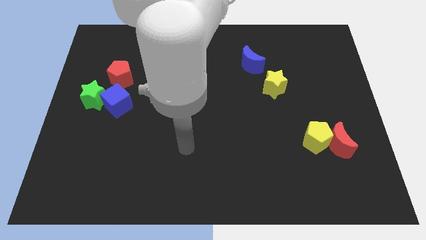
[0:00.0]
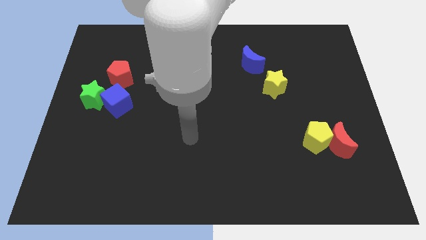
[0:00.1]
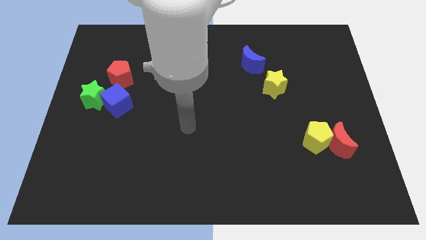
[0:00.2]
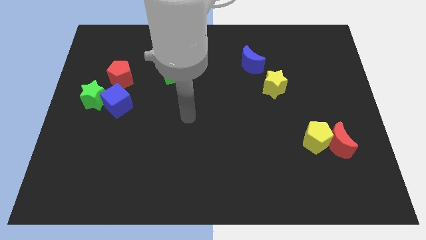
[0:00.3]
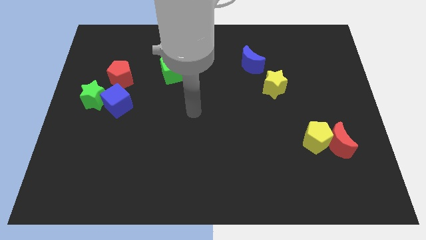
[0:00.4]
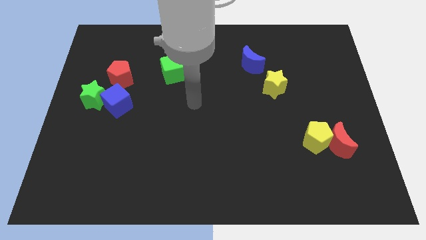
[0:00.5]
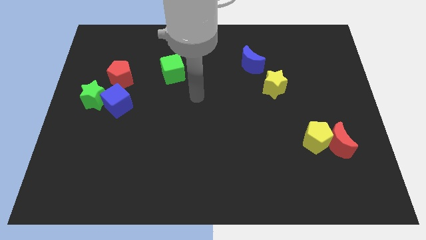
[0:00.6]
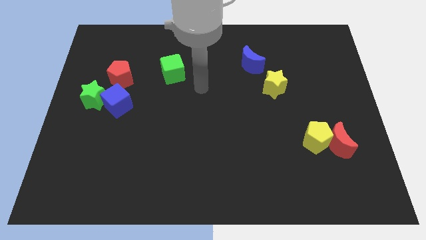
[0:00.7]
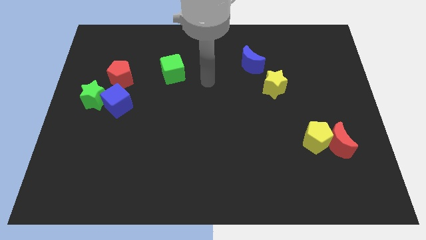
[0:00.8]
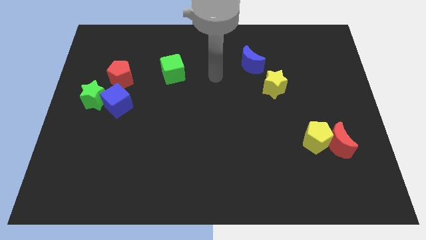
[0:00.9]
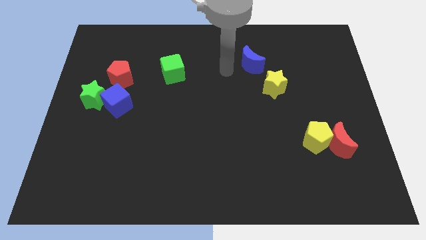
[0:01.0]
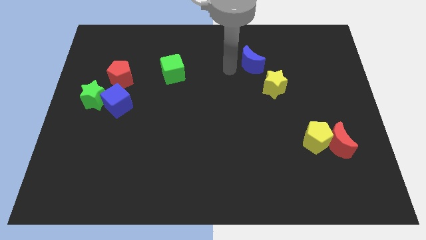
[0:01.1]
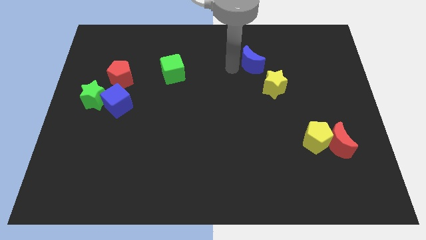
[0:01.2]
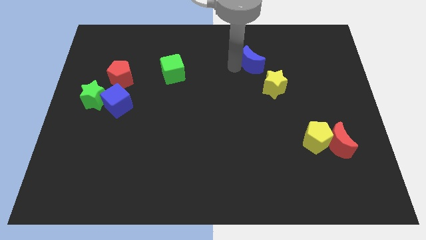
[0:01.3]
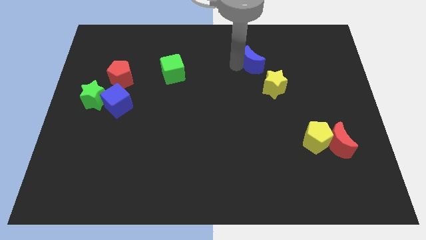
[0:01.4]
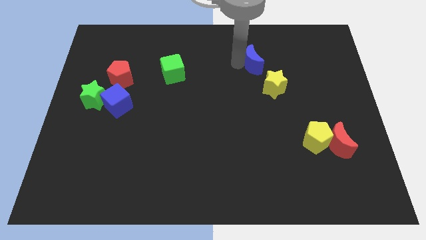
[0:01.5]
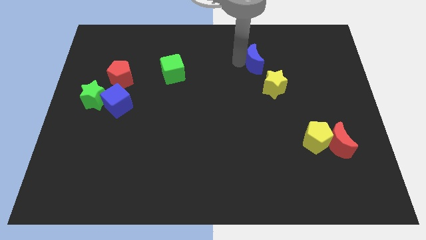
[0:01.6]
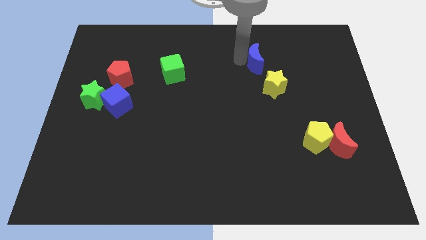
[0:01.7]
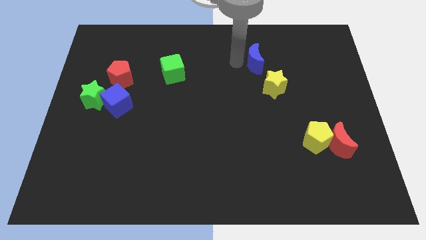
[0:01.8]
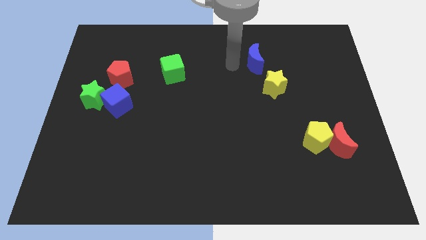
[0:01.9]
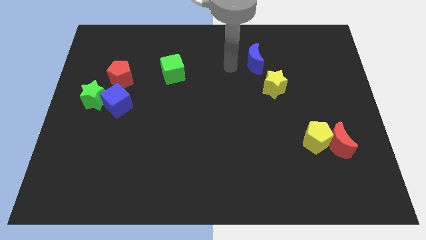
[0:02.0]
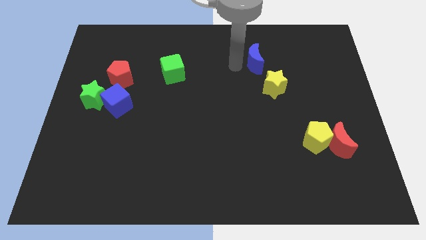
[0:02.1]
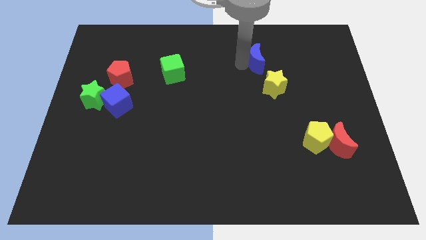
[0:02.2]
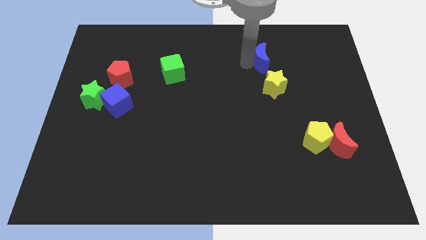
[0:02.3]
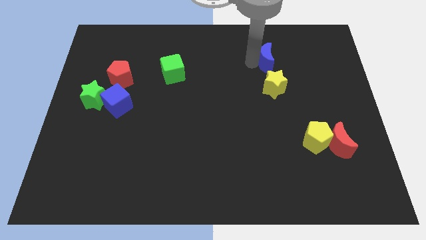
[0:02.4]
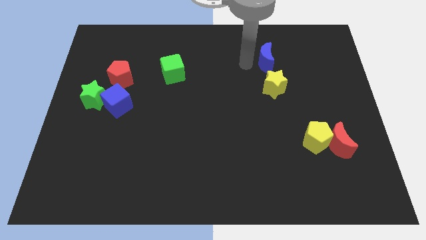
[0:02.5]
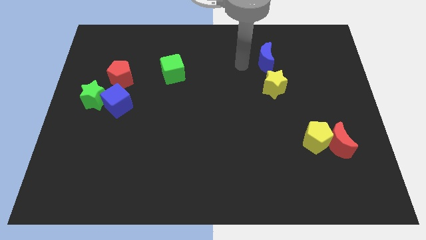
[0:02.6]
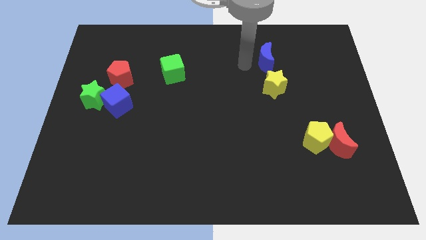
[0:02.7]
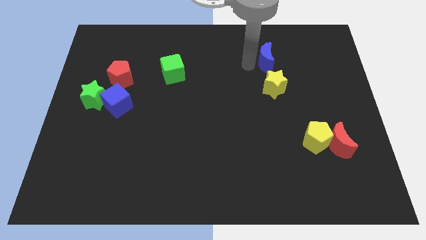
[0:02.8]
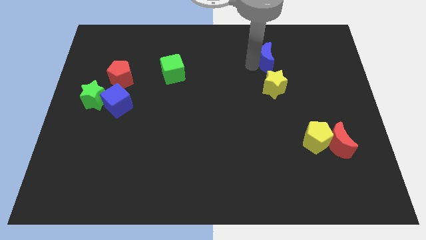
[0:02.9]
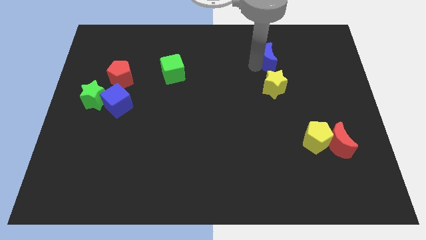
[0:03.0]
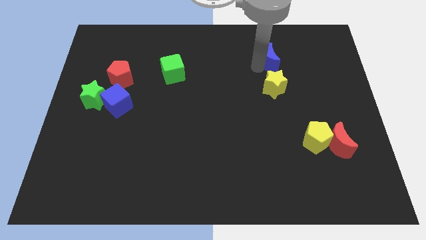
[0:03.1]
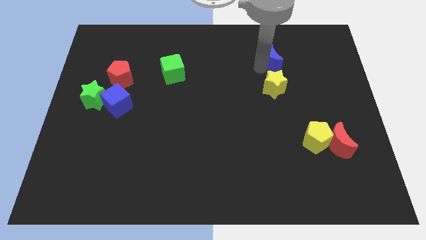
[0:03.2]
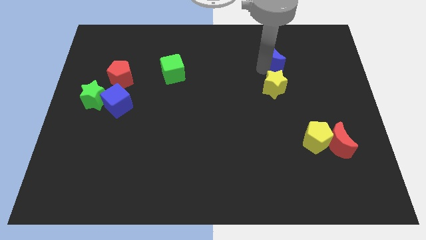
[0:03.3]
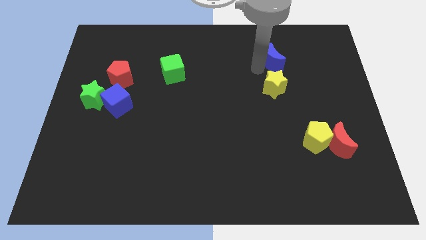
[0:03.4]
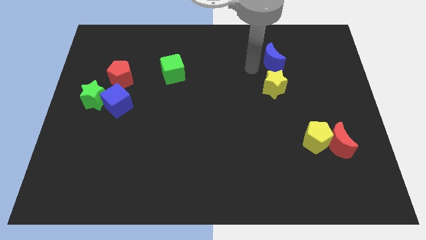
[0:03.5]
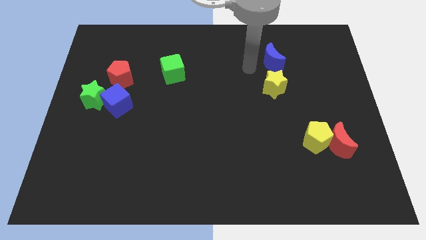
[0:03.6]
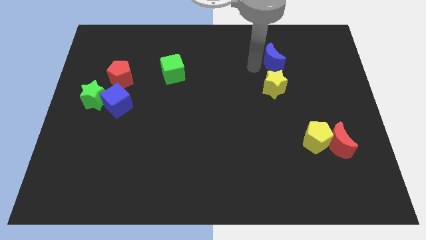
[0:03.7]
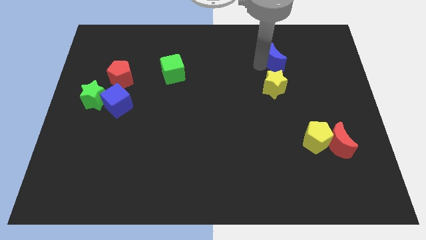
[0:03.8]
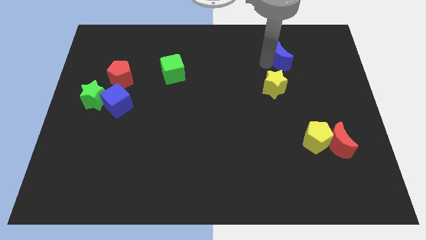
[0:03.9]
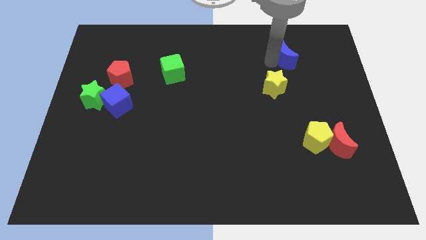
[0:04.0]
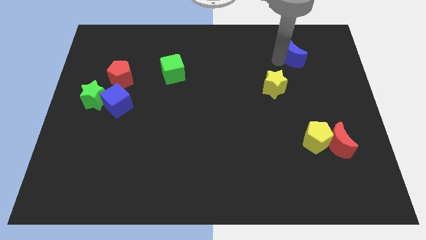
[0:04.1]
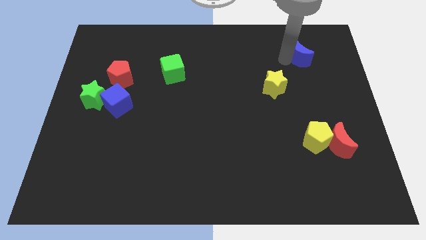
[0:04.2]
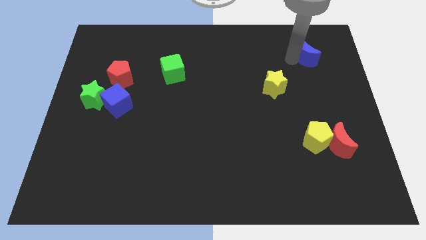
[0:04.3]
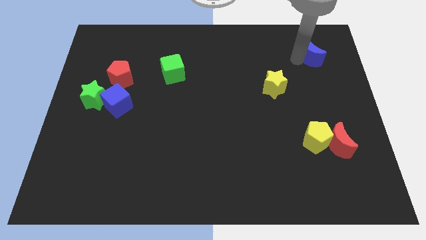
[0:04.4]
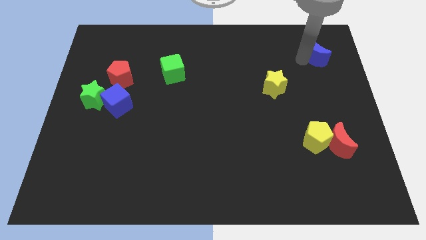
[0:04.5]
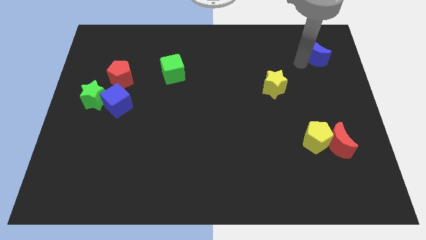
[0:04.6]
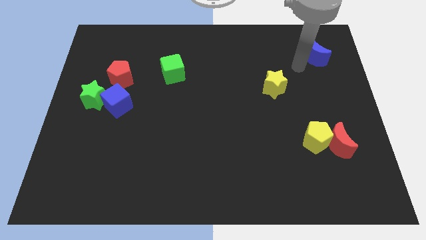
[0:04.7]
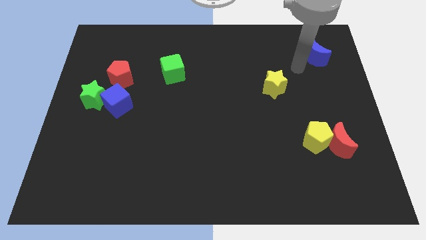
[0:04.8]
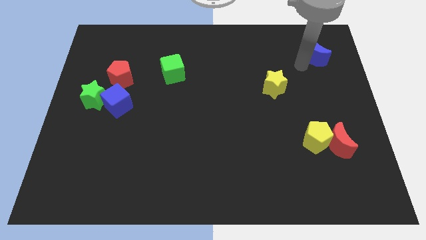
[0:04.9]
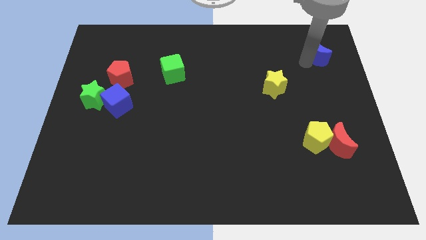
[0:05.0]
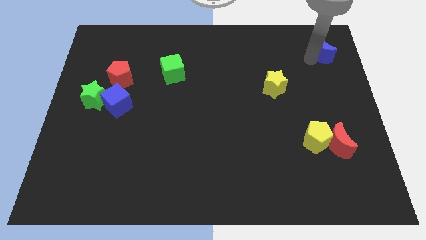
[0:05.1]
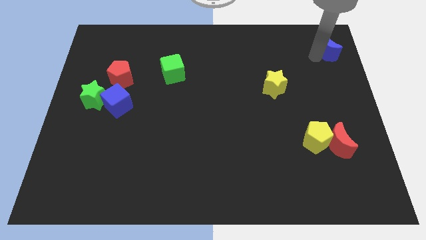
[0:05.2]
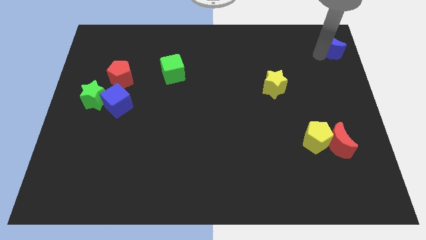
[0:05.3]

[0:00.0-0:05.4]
move the blue moon to the top right corner

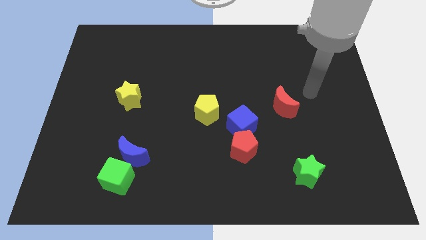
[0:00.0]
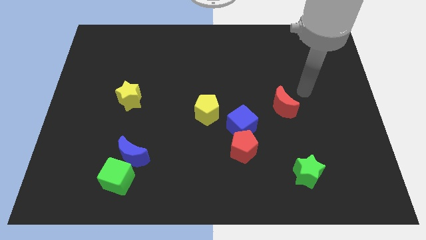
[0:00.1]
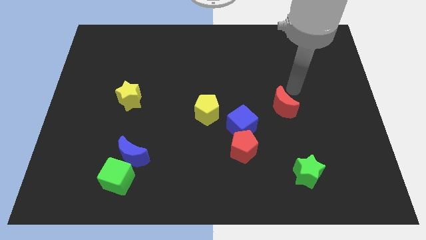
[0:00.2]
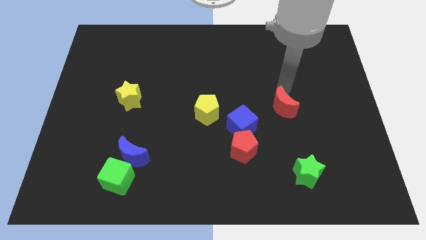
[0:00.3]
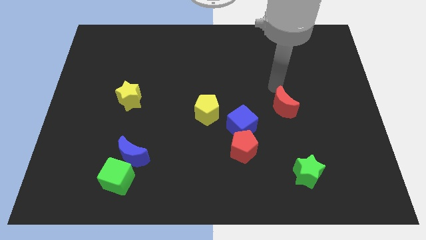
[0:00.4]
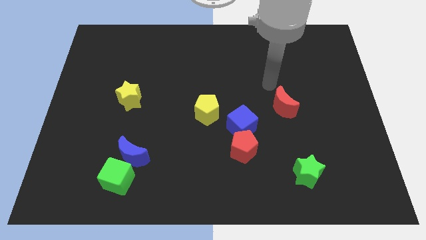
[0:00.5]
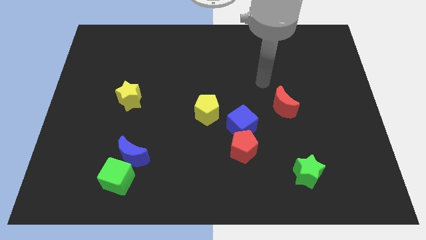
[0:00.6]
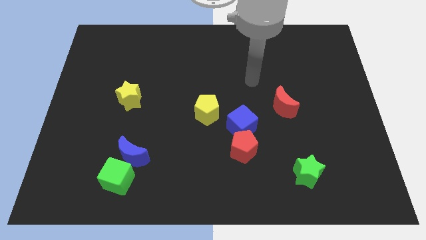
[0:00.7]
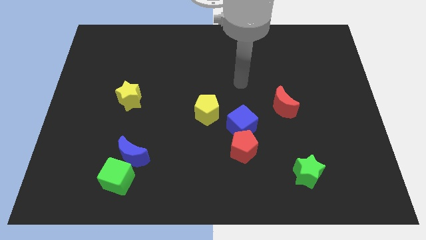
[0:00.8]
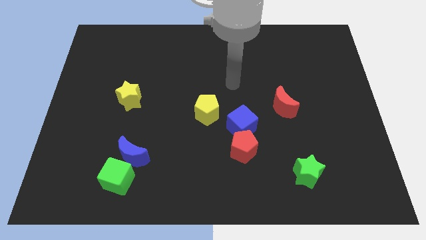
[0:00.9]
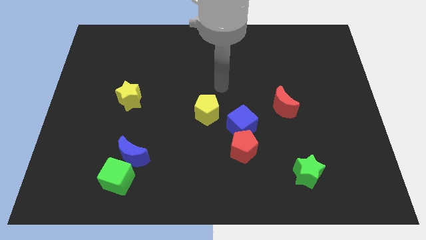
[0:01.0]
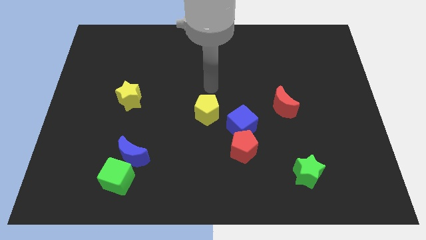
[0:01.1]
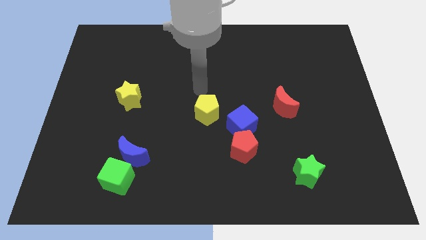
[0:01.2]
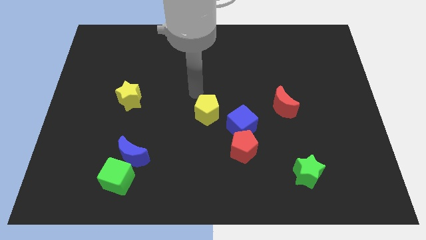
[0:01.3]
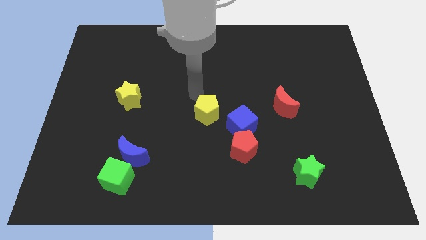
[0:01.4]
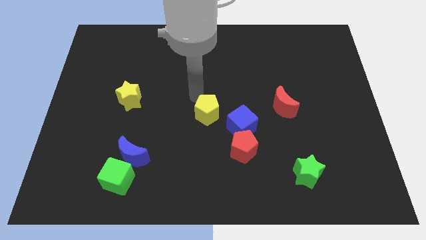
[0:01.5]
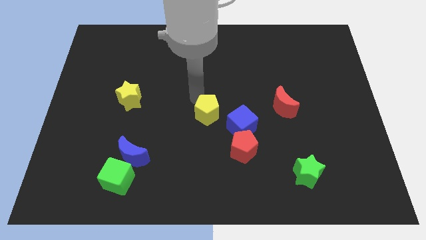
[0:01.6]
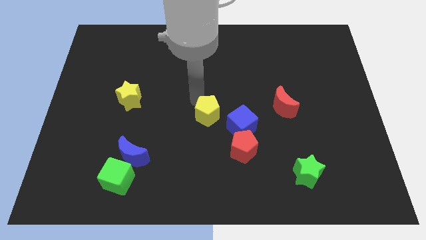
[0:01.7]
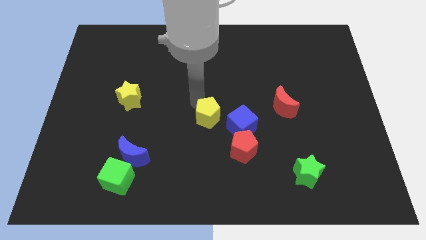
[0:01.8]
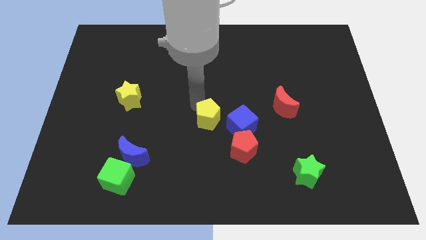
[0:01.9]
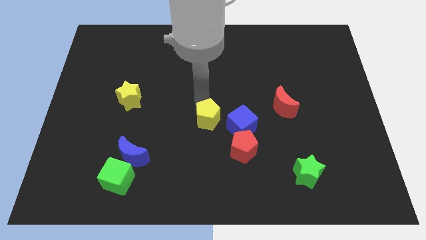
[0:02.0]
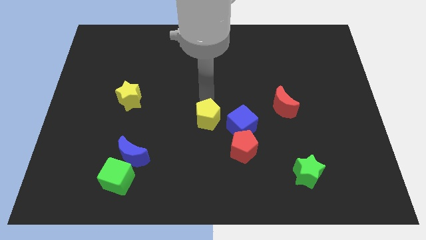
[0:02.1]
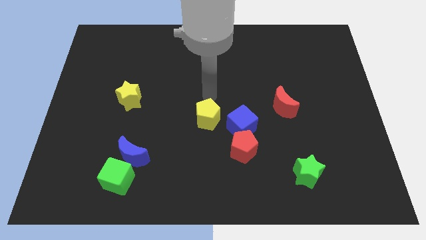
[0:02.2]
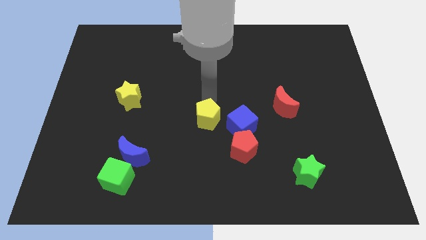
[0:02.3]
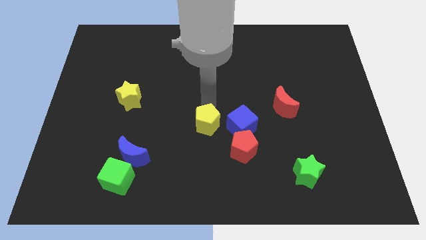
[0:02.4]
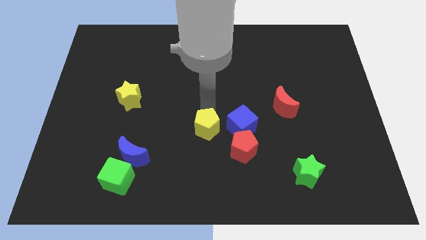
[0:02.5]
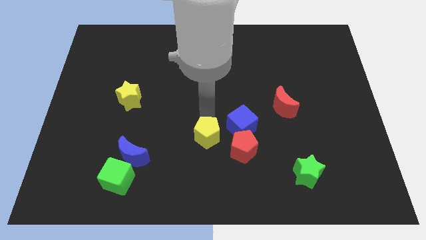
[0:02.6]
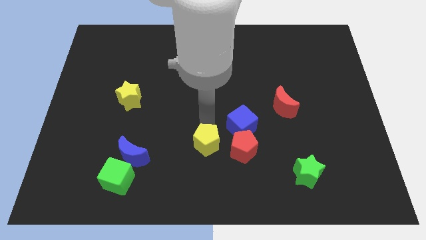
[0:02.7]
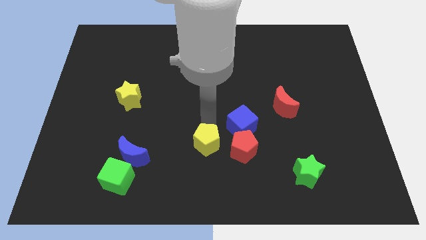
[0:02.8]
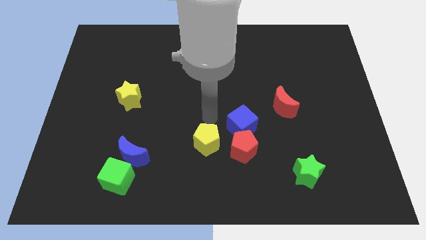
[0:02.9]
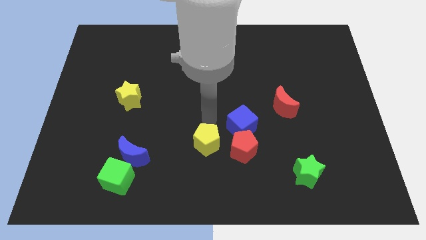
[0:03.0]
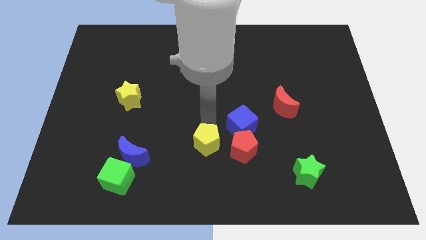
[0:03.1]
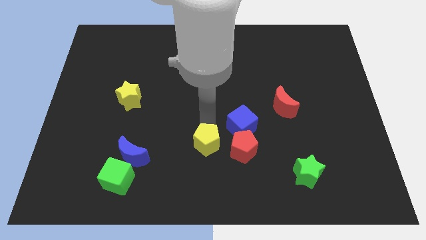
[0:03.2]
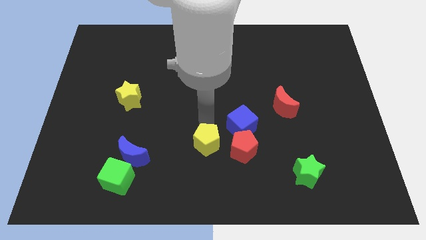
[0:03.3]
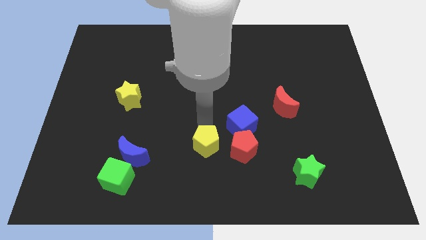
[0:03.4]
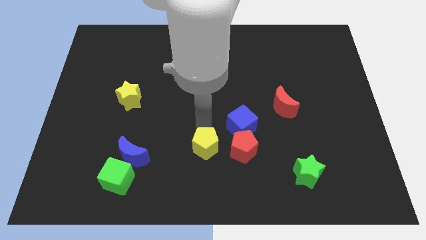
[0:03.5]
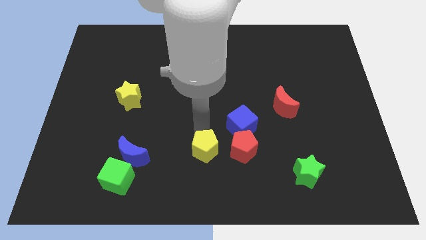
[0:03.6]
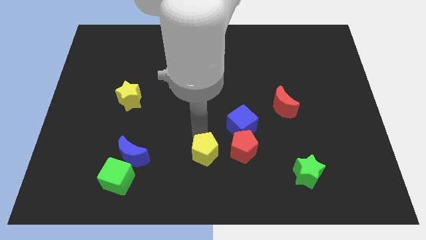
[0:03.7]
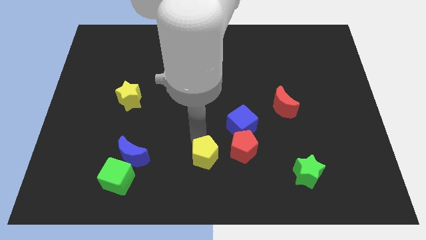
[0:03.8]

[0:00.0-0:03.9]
move the yellow pentagon to the bottom side
